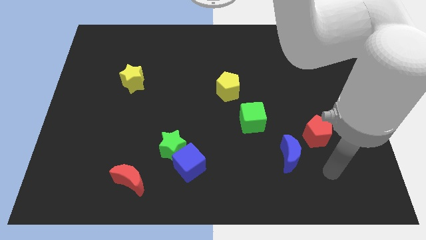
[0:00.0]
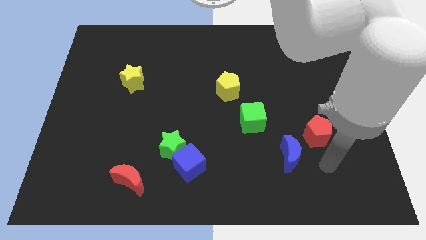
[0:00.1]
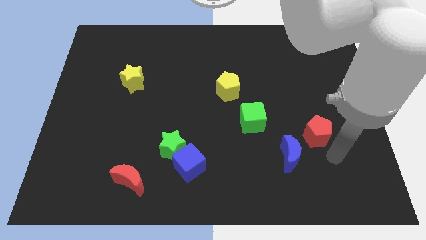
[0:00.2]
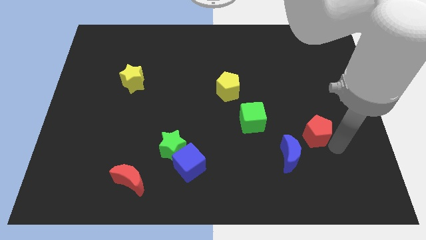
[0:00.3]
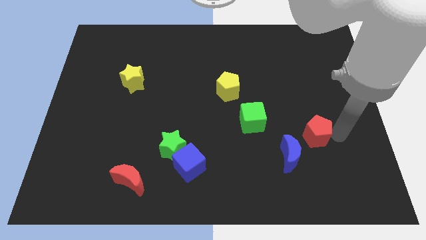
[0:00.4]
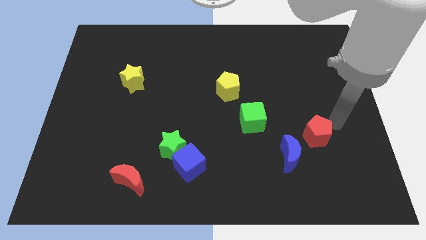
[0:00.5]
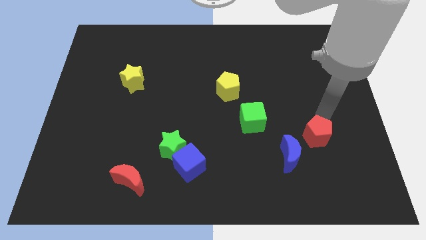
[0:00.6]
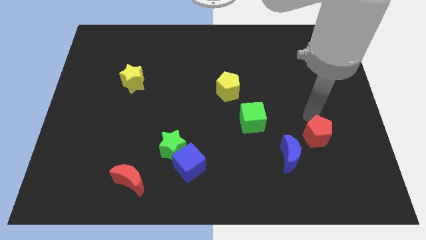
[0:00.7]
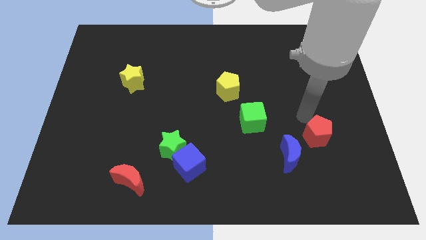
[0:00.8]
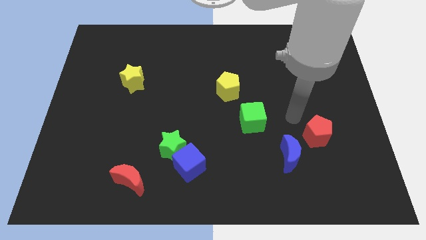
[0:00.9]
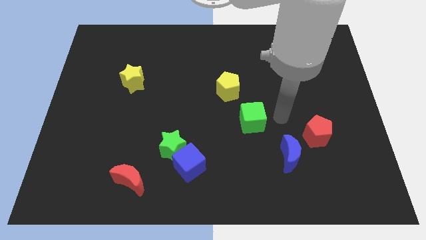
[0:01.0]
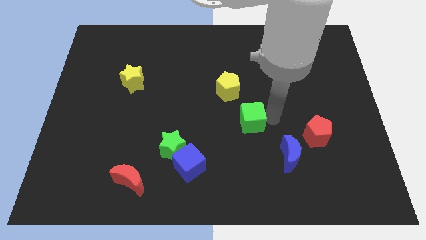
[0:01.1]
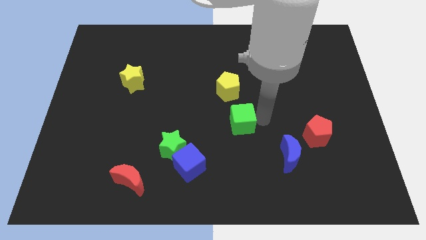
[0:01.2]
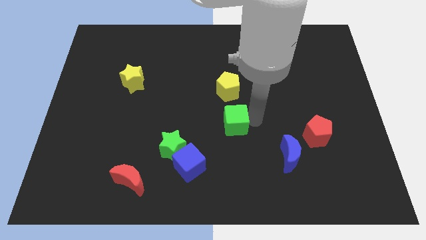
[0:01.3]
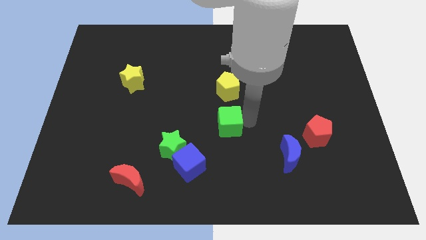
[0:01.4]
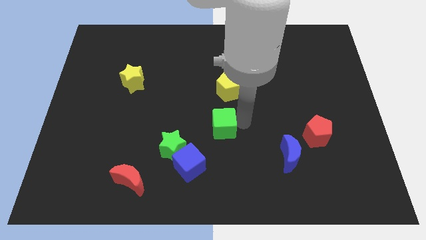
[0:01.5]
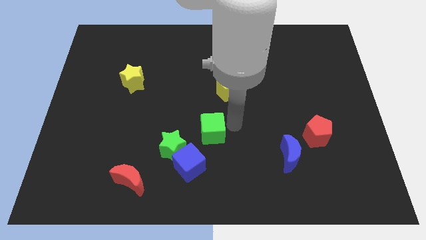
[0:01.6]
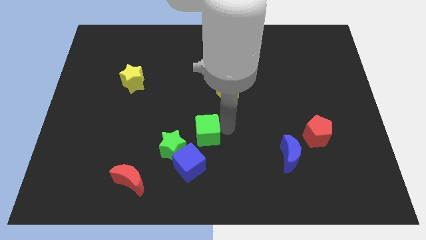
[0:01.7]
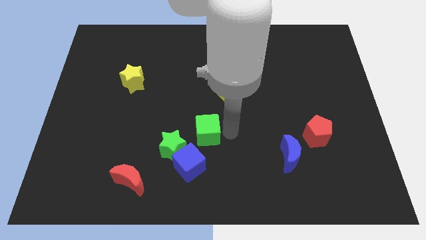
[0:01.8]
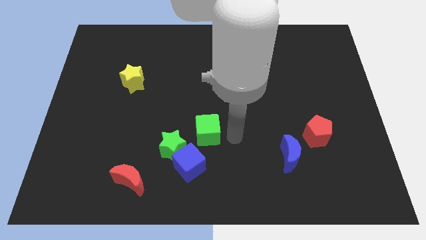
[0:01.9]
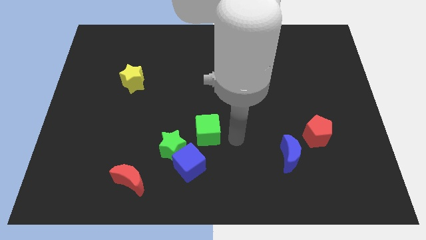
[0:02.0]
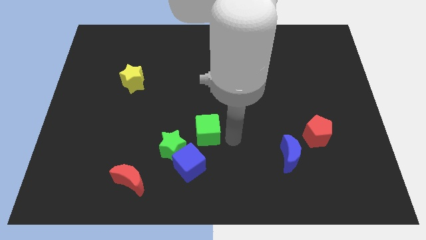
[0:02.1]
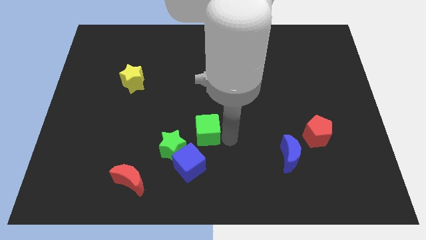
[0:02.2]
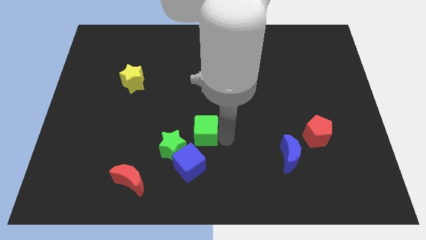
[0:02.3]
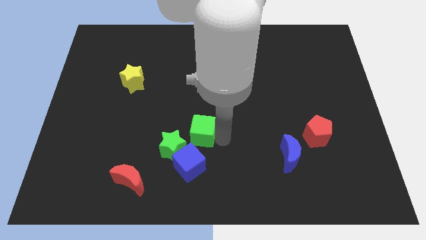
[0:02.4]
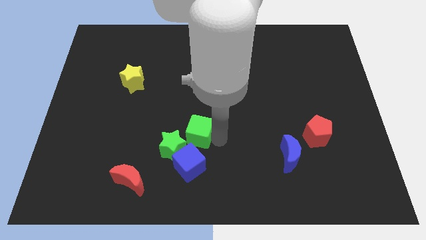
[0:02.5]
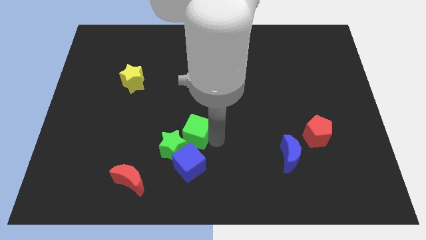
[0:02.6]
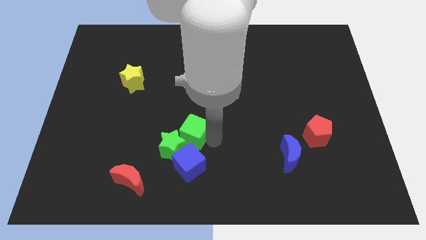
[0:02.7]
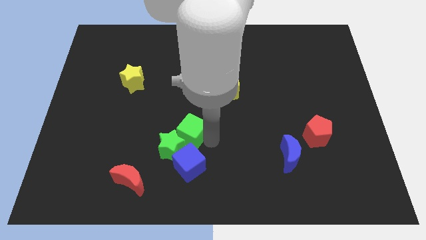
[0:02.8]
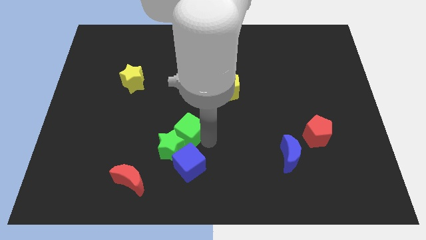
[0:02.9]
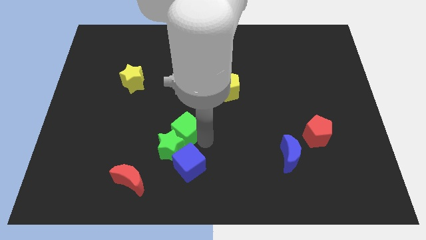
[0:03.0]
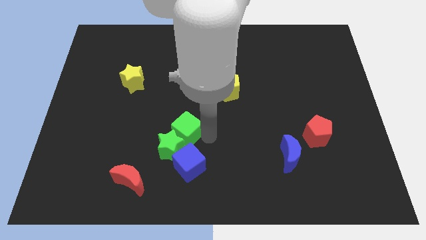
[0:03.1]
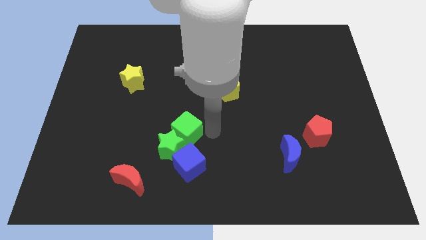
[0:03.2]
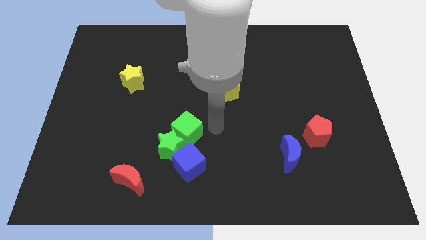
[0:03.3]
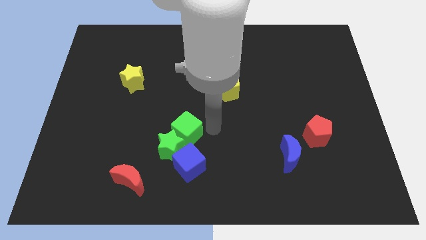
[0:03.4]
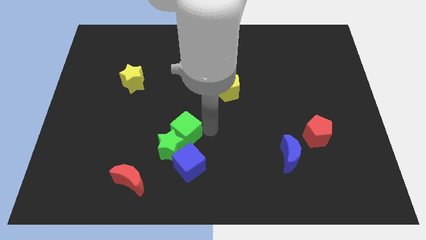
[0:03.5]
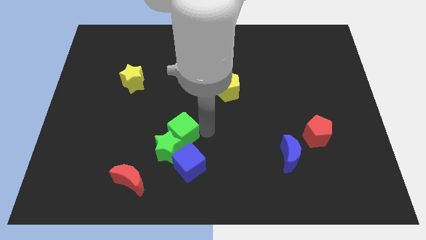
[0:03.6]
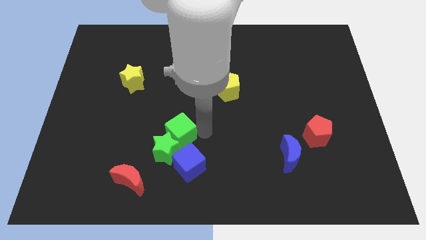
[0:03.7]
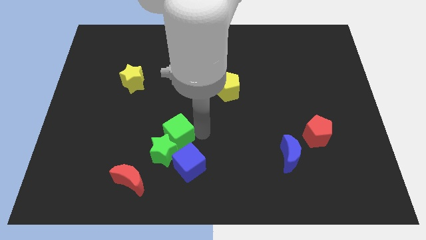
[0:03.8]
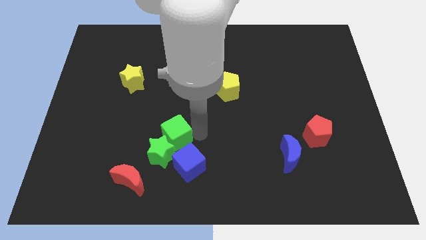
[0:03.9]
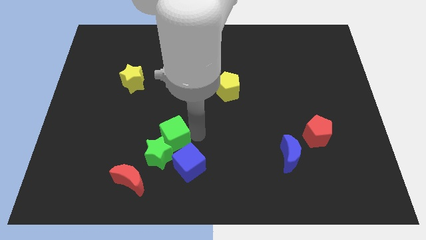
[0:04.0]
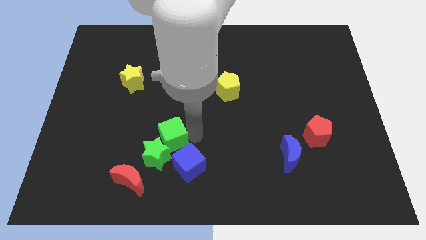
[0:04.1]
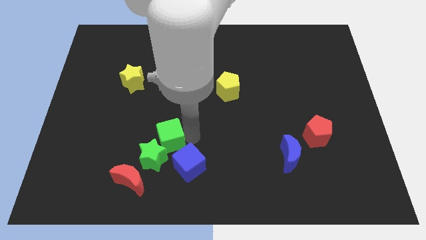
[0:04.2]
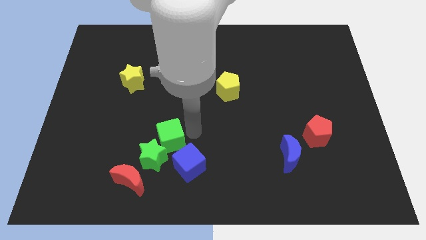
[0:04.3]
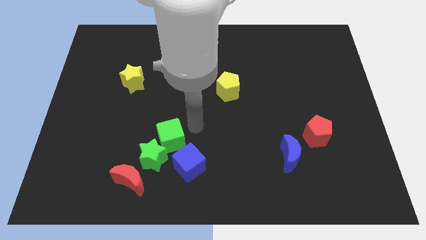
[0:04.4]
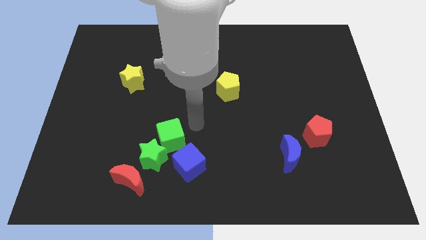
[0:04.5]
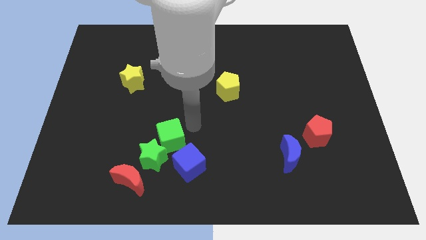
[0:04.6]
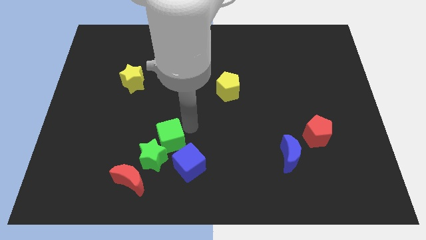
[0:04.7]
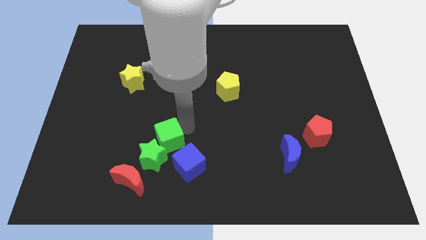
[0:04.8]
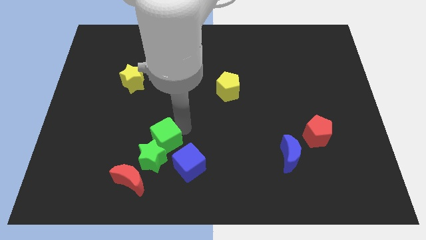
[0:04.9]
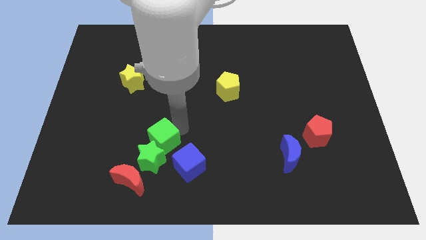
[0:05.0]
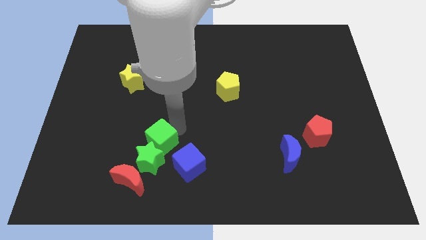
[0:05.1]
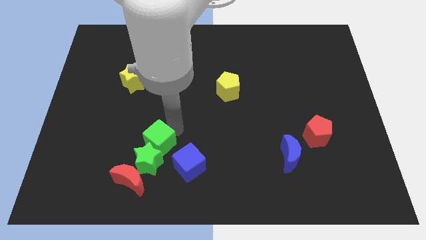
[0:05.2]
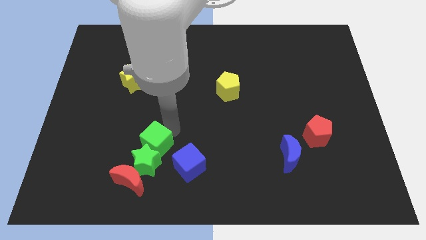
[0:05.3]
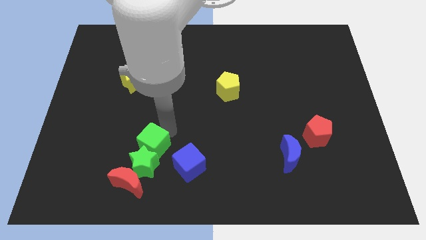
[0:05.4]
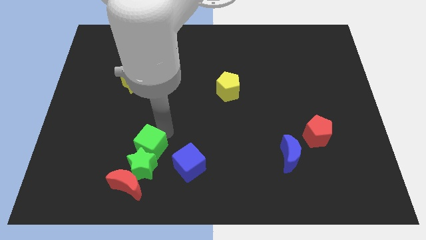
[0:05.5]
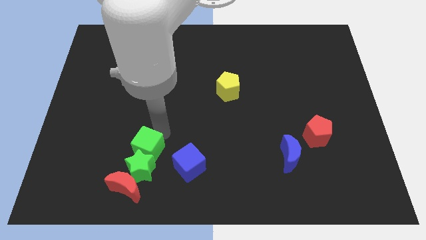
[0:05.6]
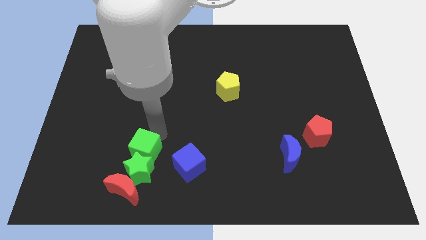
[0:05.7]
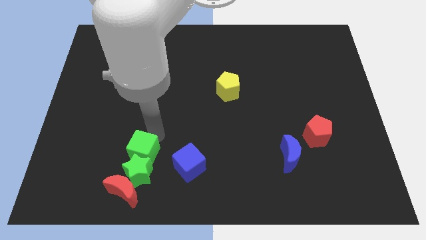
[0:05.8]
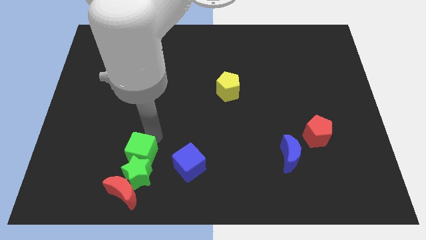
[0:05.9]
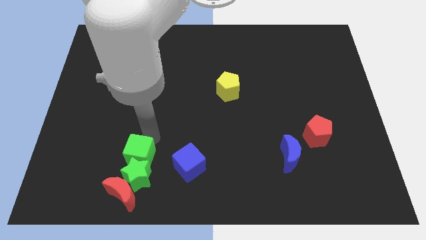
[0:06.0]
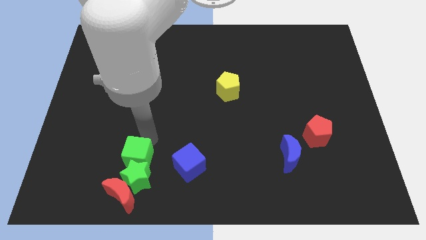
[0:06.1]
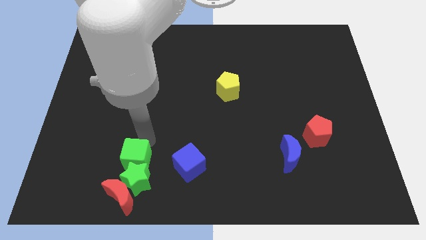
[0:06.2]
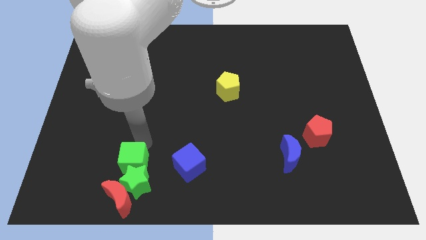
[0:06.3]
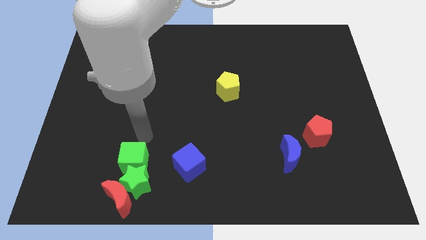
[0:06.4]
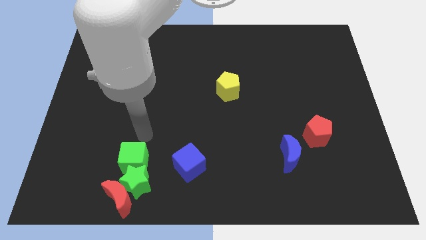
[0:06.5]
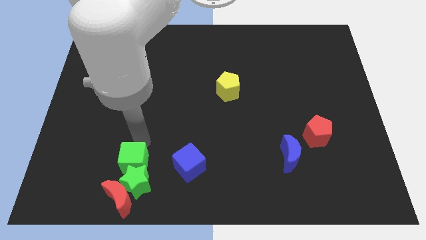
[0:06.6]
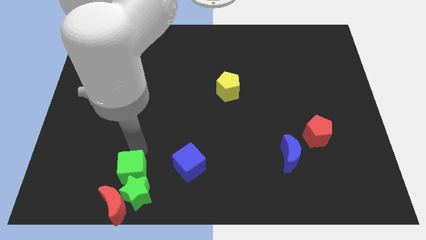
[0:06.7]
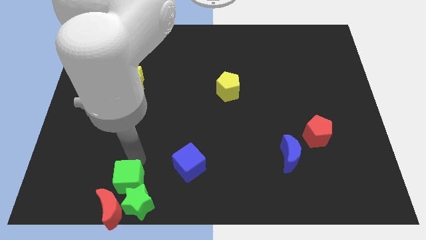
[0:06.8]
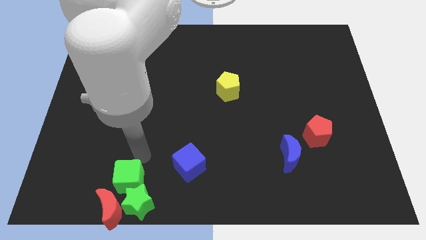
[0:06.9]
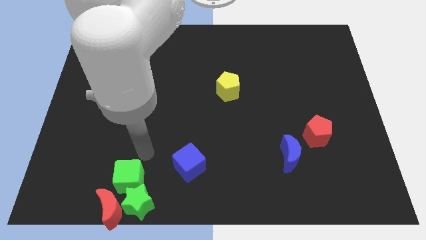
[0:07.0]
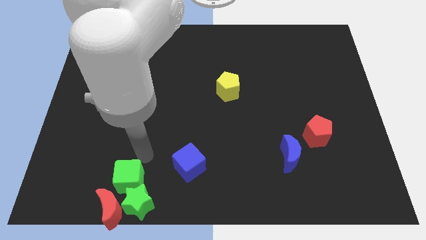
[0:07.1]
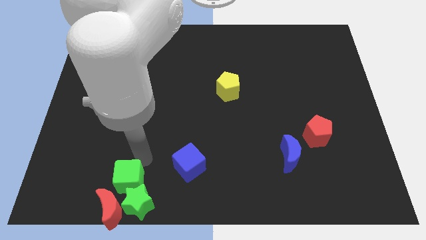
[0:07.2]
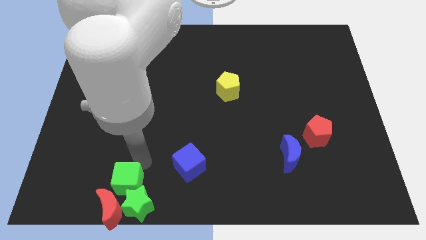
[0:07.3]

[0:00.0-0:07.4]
put the green cube next to the red moon
